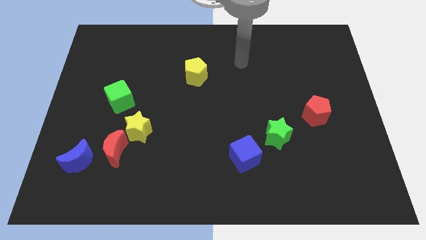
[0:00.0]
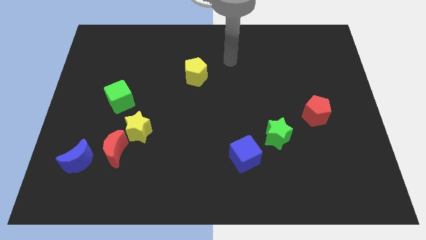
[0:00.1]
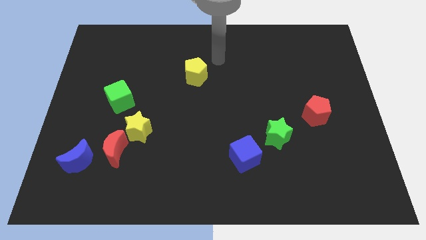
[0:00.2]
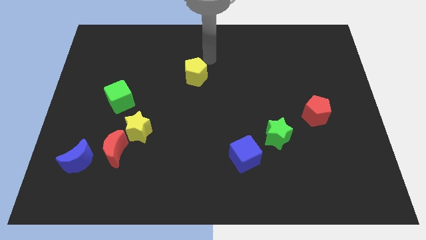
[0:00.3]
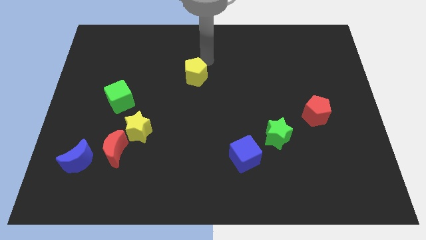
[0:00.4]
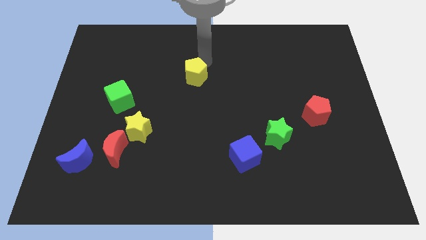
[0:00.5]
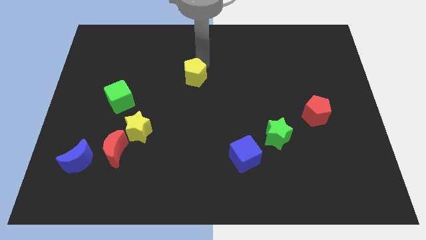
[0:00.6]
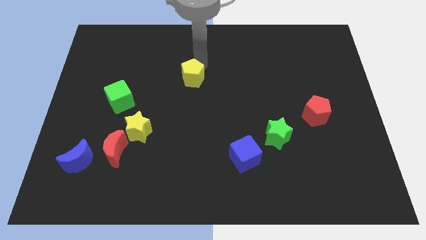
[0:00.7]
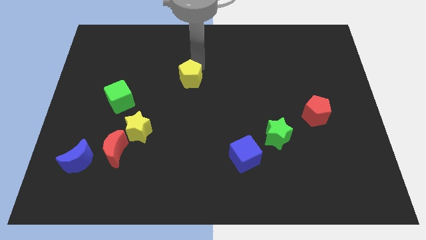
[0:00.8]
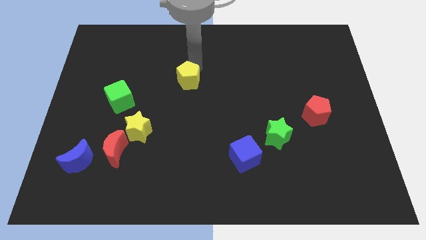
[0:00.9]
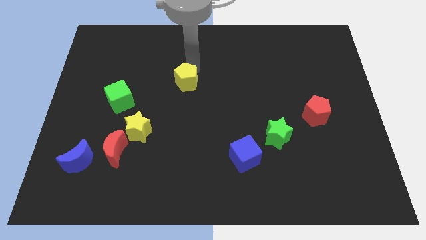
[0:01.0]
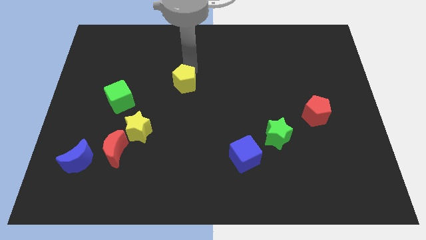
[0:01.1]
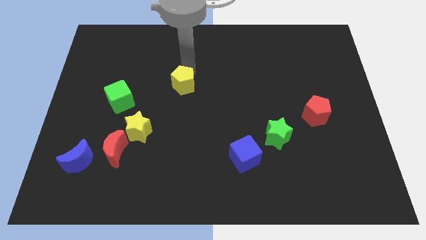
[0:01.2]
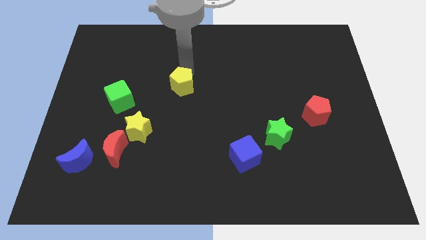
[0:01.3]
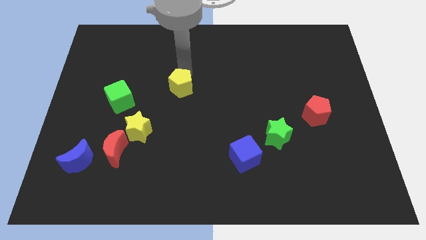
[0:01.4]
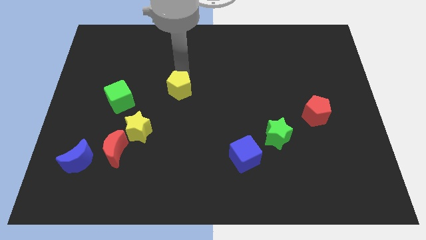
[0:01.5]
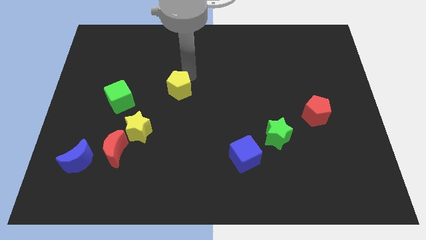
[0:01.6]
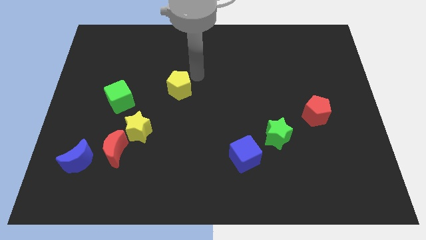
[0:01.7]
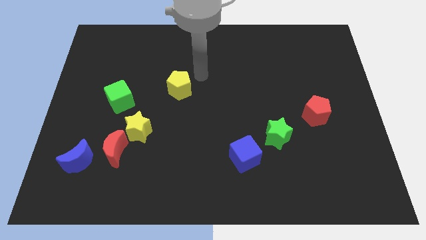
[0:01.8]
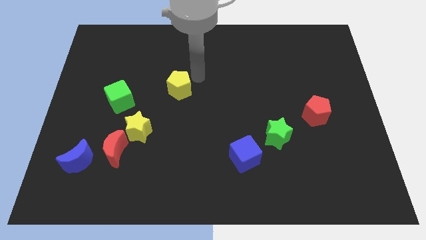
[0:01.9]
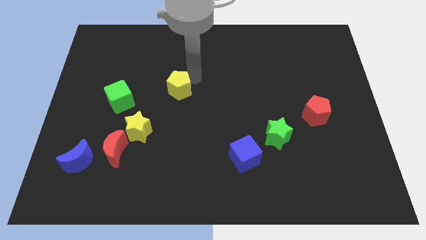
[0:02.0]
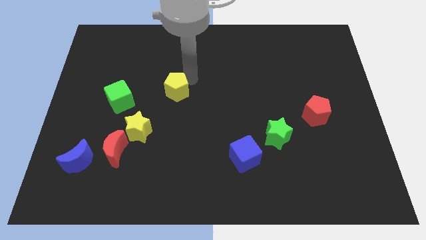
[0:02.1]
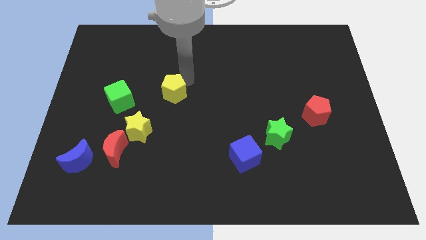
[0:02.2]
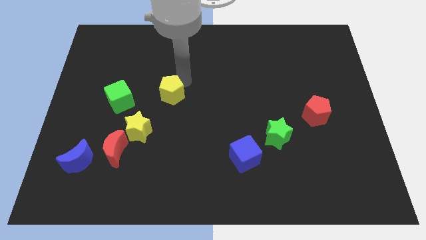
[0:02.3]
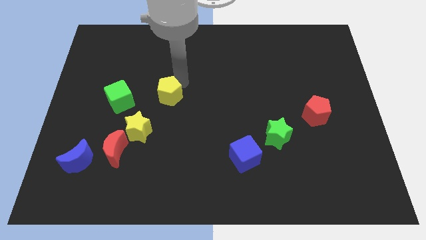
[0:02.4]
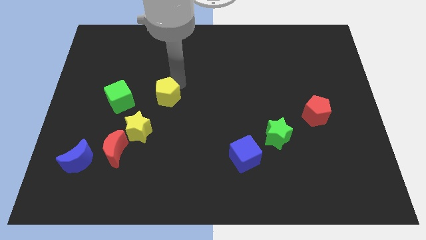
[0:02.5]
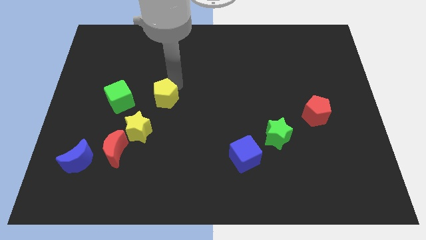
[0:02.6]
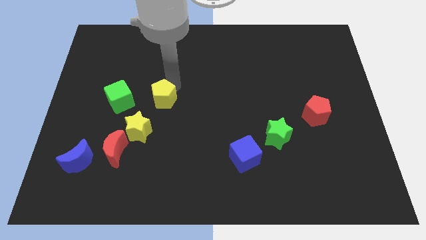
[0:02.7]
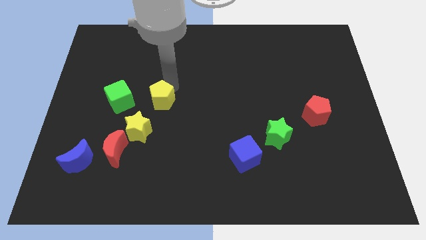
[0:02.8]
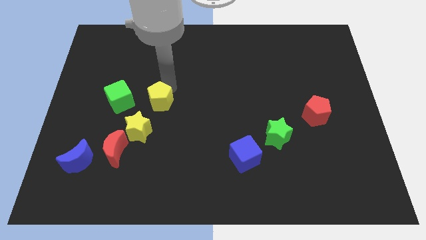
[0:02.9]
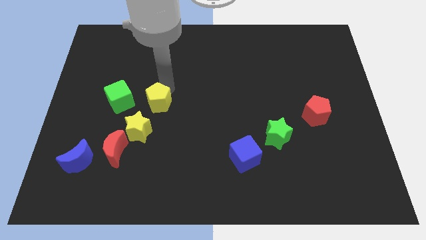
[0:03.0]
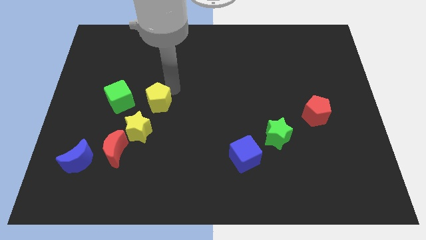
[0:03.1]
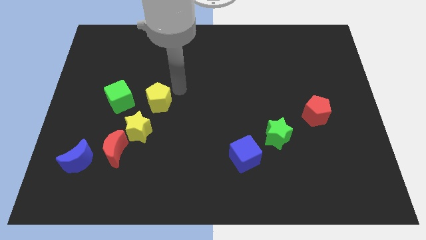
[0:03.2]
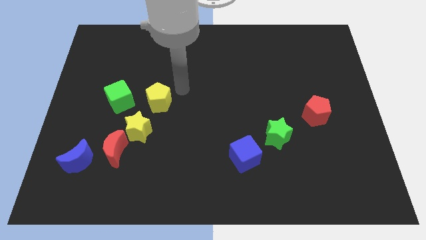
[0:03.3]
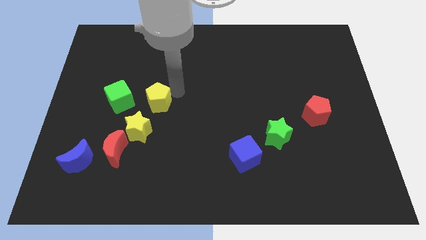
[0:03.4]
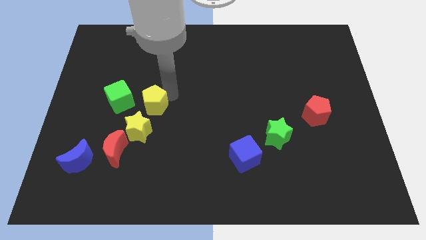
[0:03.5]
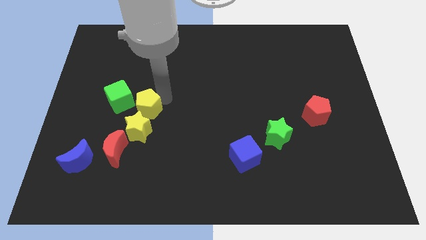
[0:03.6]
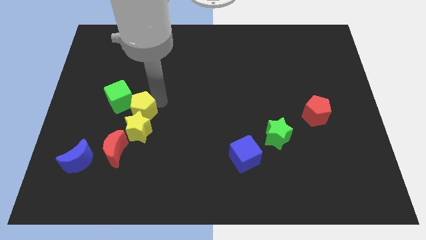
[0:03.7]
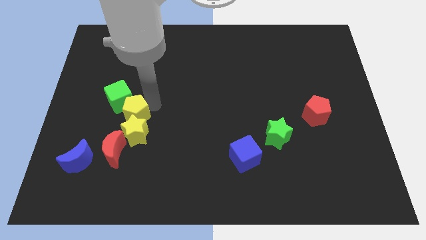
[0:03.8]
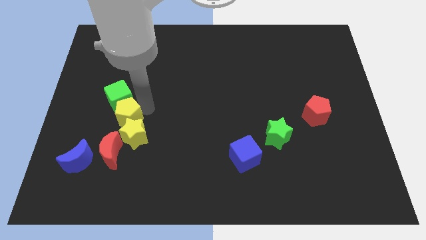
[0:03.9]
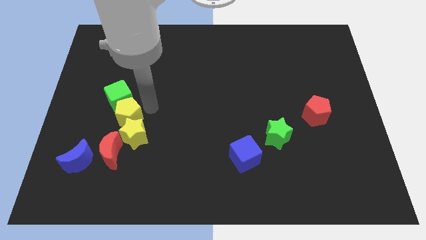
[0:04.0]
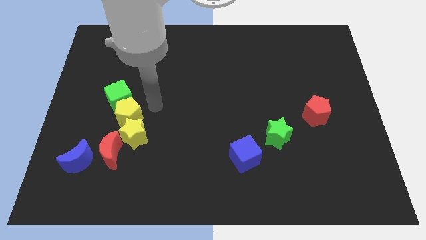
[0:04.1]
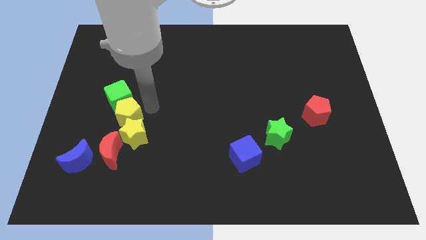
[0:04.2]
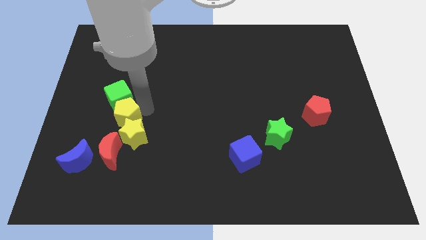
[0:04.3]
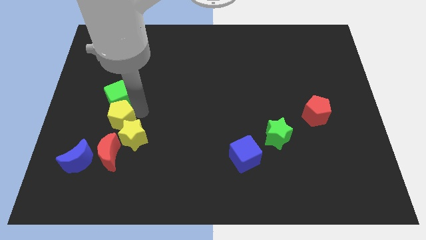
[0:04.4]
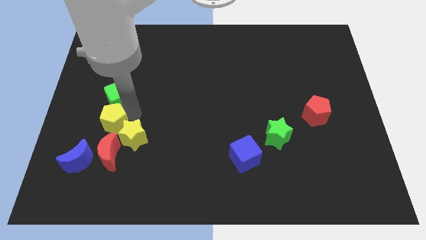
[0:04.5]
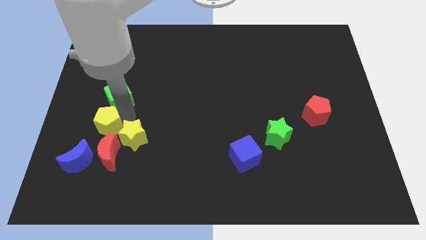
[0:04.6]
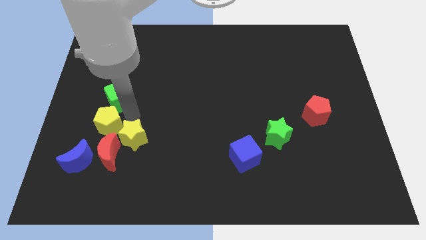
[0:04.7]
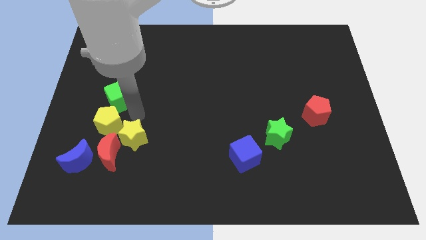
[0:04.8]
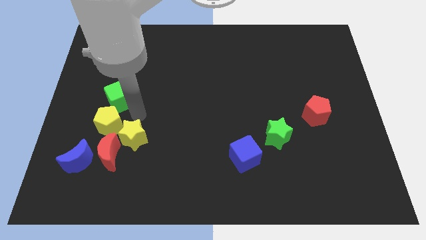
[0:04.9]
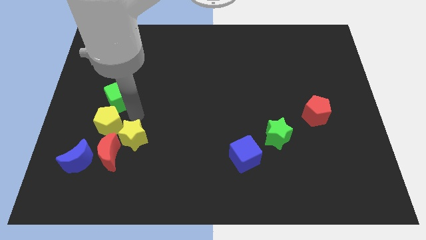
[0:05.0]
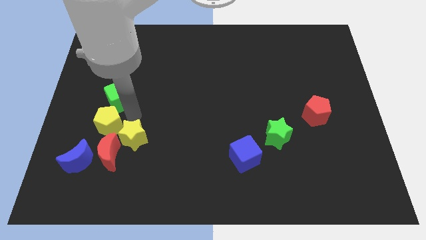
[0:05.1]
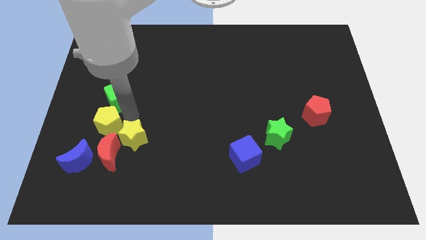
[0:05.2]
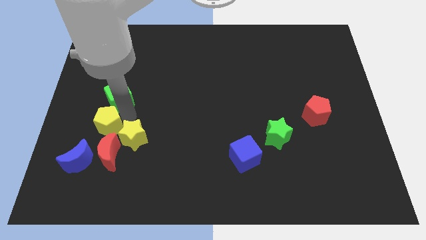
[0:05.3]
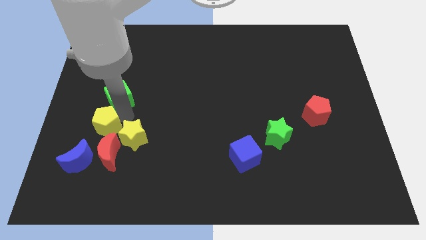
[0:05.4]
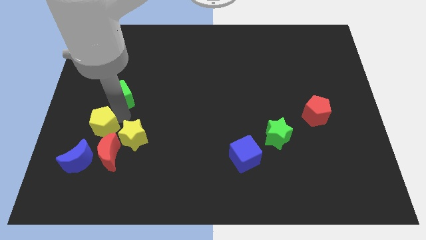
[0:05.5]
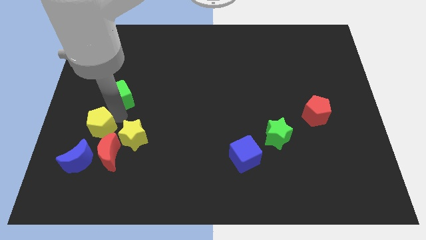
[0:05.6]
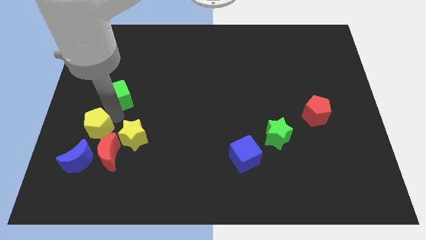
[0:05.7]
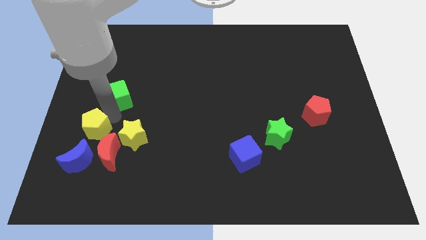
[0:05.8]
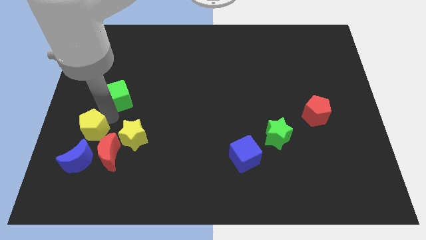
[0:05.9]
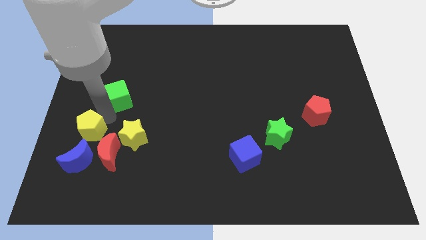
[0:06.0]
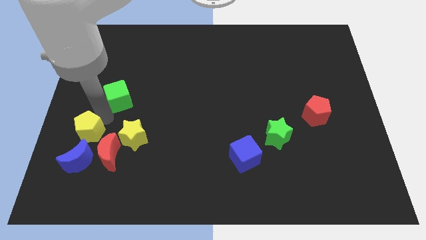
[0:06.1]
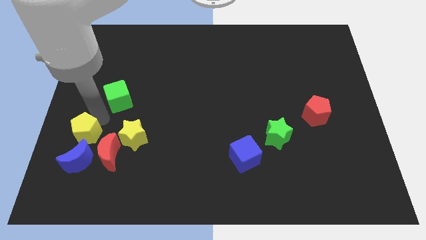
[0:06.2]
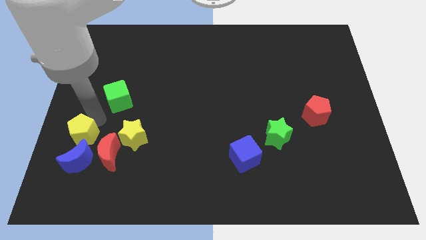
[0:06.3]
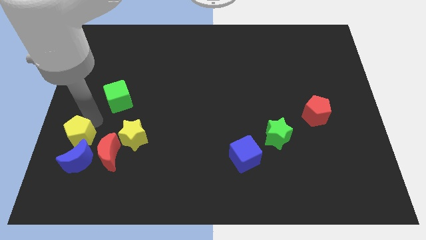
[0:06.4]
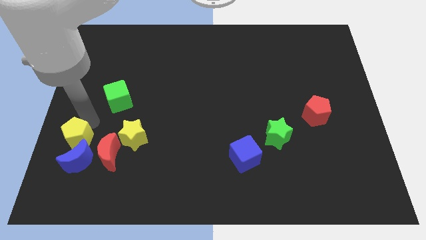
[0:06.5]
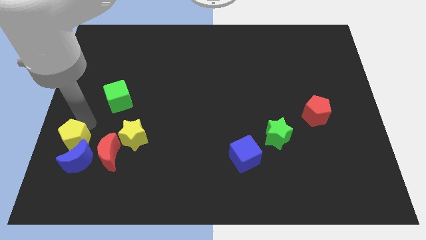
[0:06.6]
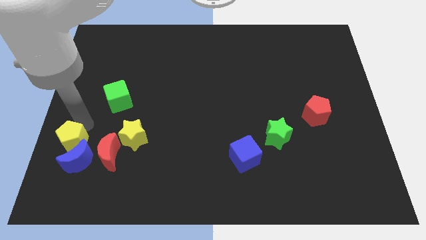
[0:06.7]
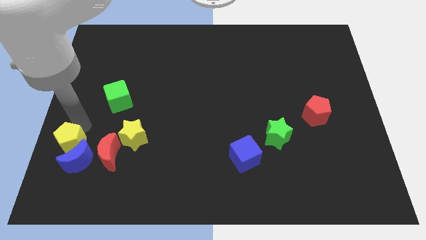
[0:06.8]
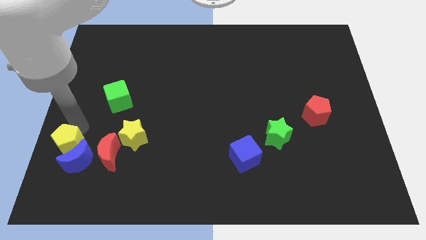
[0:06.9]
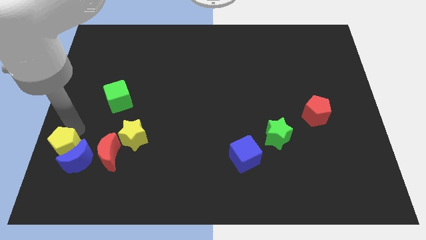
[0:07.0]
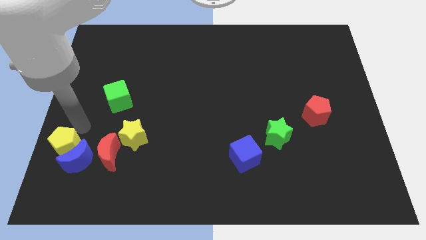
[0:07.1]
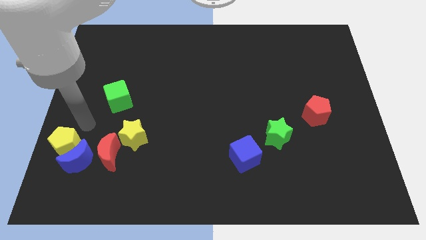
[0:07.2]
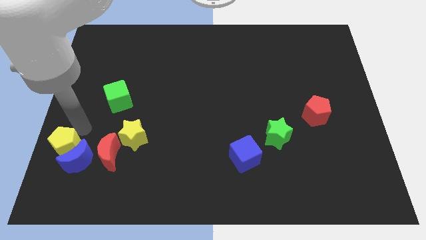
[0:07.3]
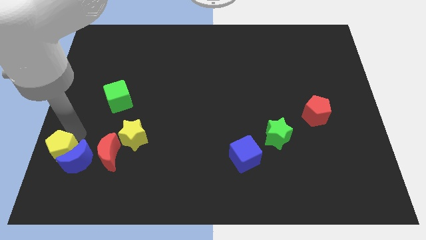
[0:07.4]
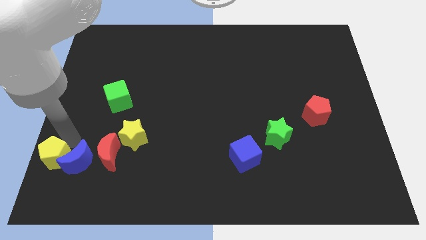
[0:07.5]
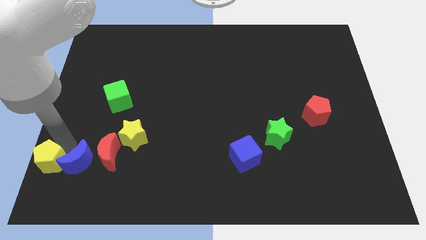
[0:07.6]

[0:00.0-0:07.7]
push the yellow pentagon to the lower left corner
